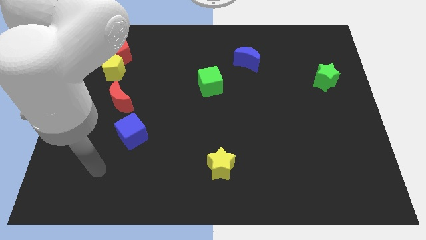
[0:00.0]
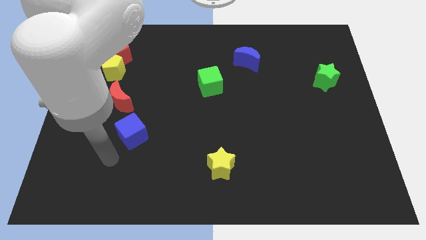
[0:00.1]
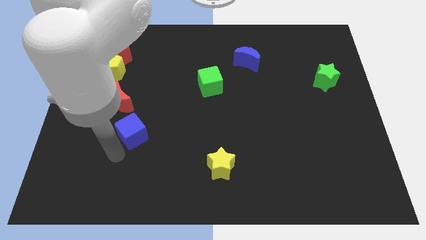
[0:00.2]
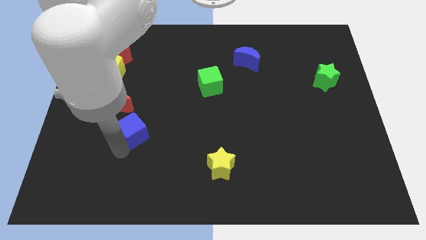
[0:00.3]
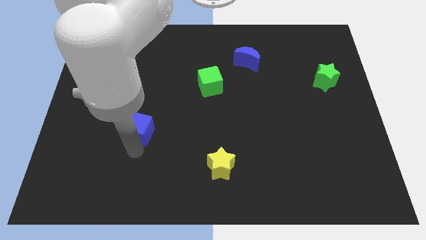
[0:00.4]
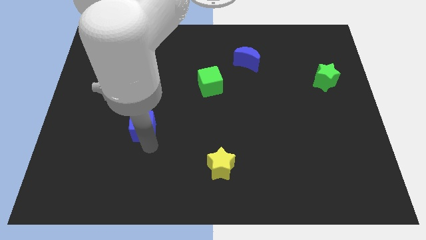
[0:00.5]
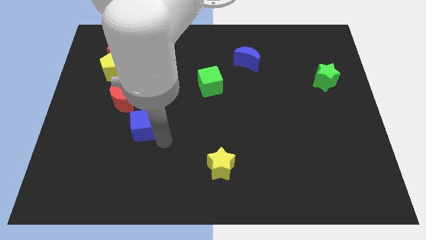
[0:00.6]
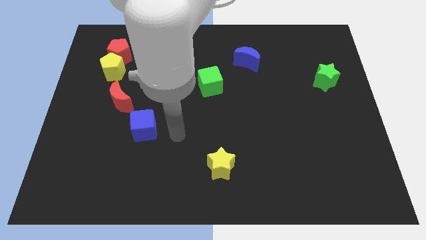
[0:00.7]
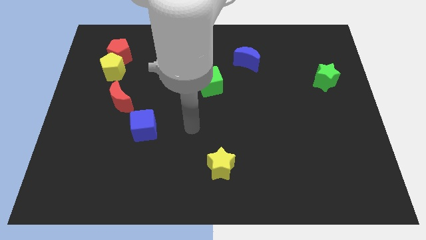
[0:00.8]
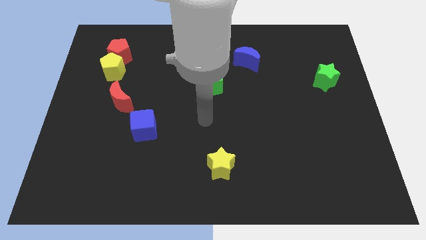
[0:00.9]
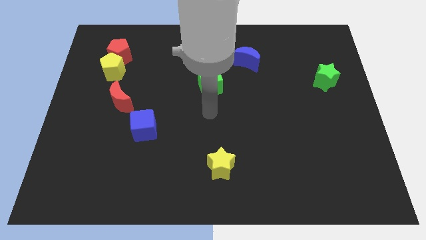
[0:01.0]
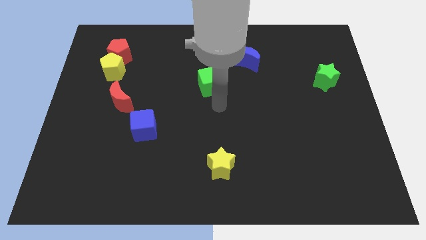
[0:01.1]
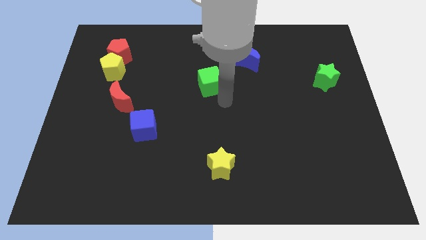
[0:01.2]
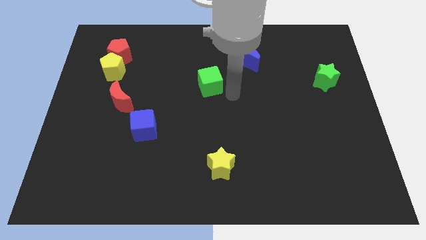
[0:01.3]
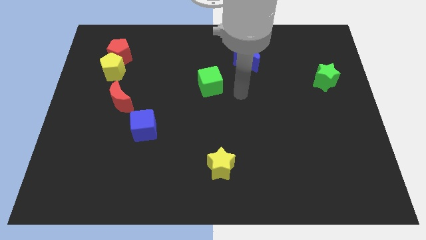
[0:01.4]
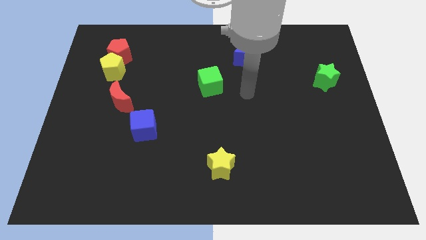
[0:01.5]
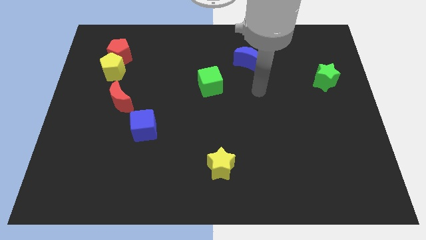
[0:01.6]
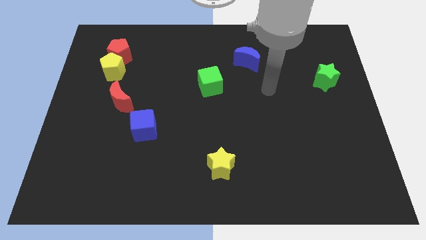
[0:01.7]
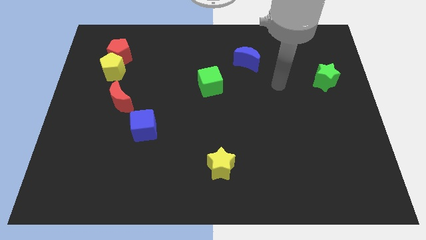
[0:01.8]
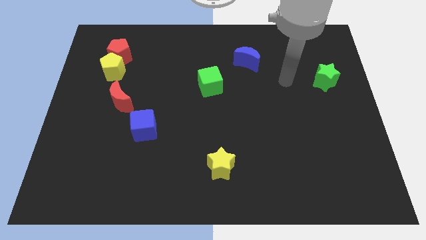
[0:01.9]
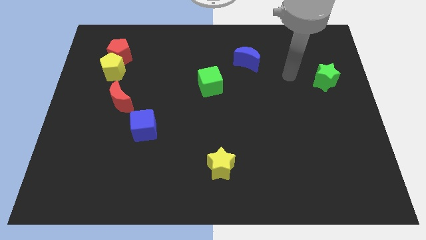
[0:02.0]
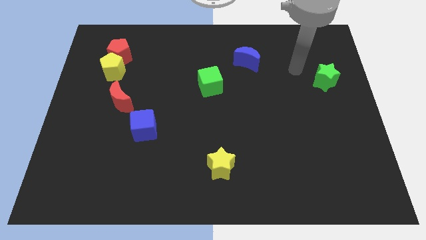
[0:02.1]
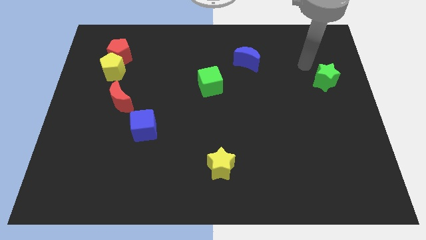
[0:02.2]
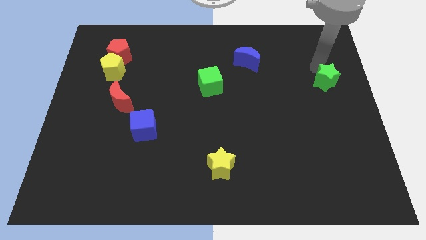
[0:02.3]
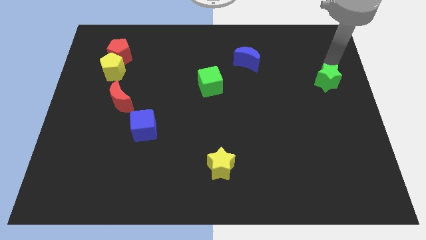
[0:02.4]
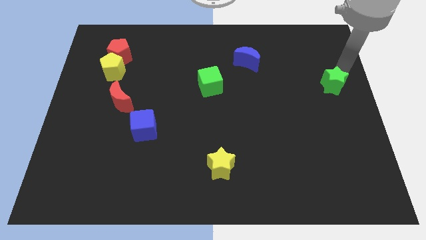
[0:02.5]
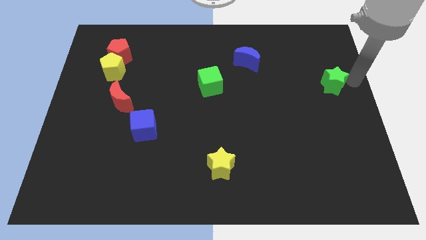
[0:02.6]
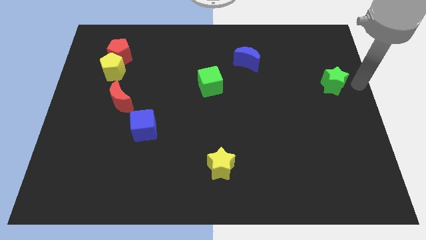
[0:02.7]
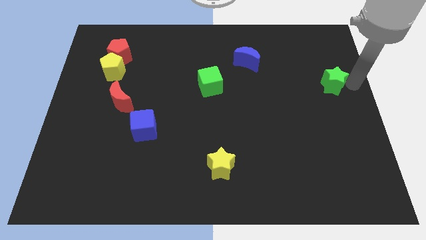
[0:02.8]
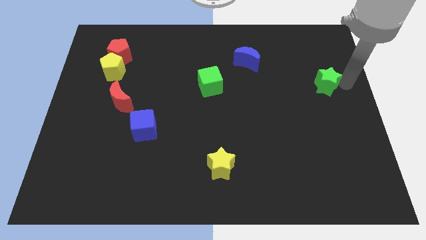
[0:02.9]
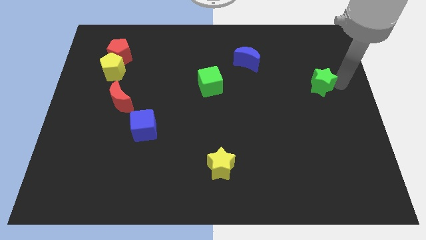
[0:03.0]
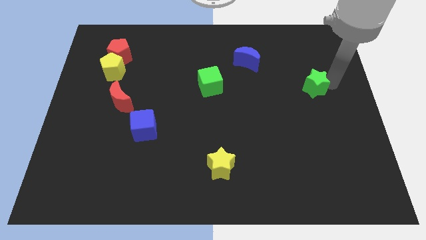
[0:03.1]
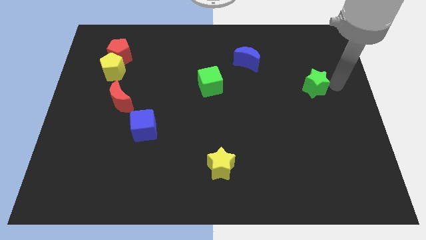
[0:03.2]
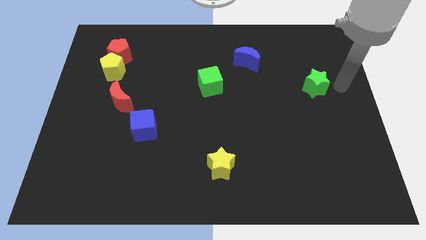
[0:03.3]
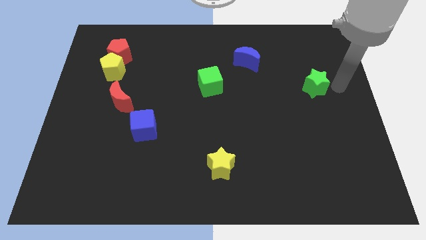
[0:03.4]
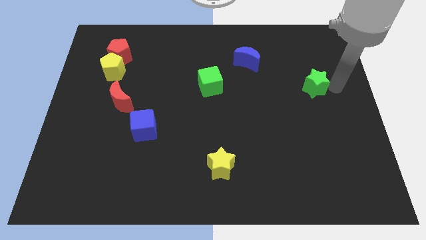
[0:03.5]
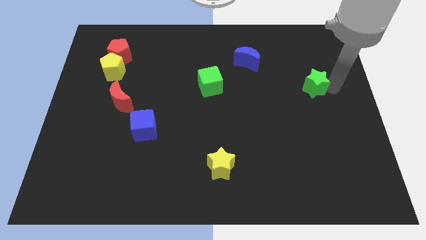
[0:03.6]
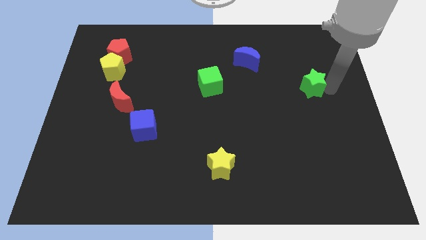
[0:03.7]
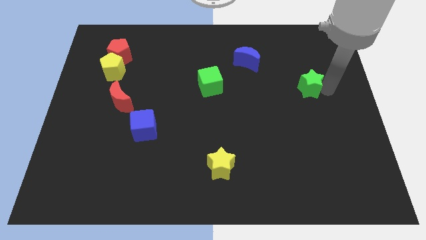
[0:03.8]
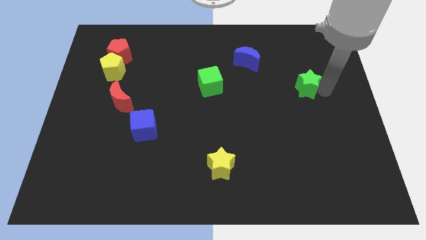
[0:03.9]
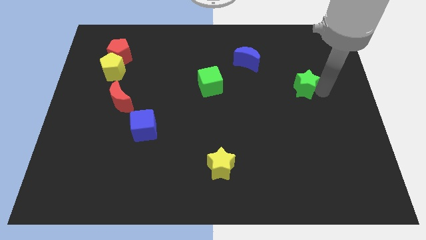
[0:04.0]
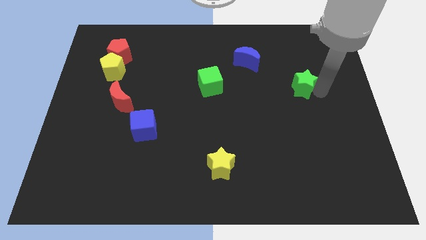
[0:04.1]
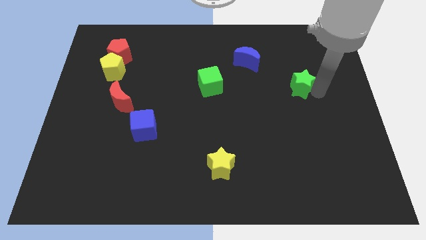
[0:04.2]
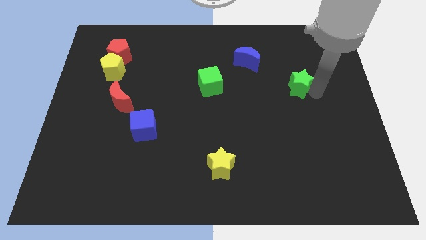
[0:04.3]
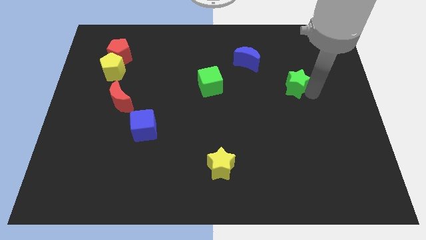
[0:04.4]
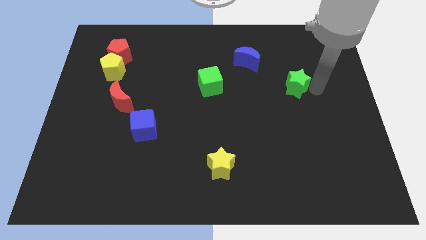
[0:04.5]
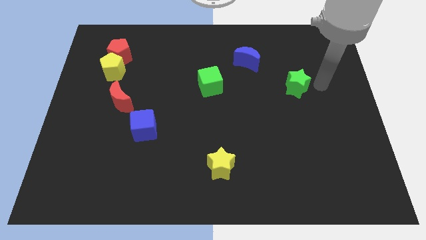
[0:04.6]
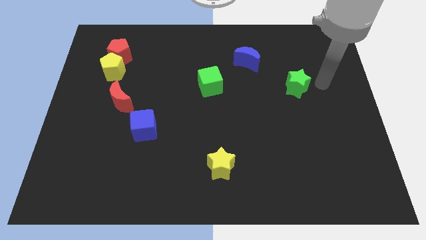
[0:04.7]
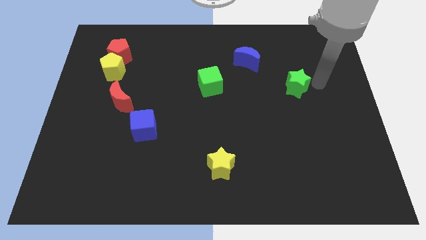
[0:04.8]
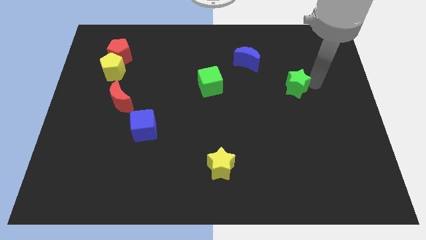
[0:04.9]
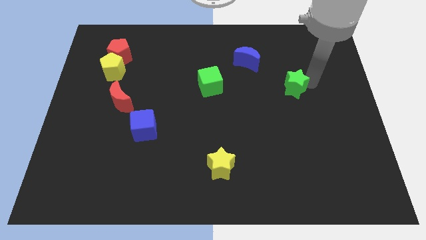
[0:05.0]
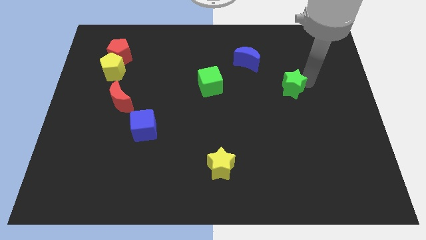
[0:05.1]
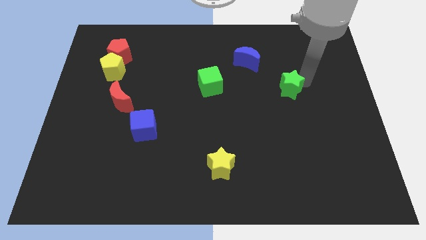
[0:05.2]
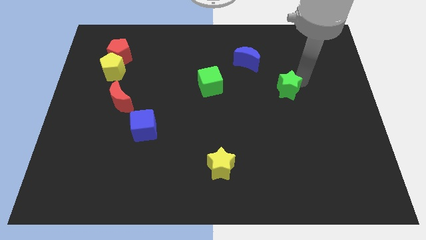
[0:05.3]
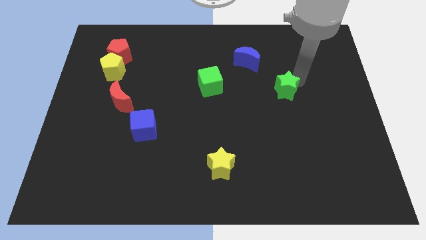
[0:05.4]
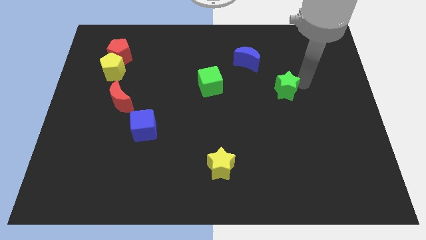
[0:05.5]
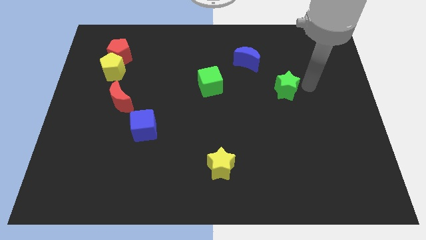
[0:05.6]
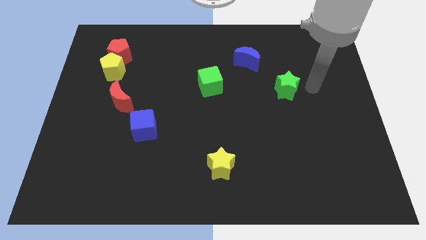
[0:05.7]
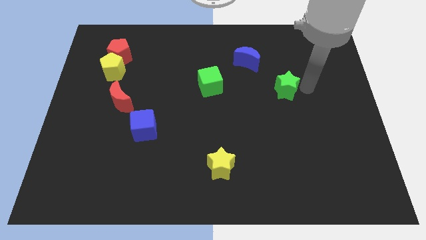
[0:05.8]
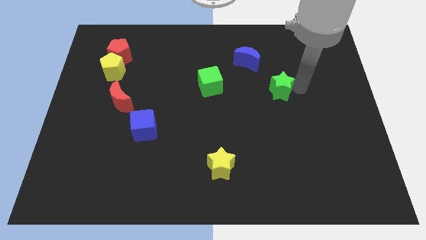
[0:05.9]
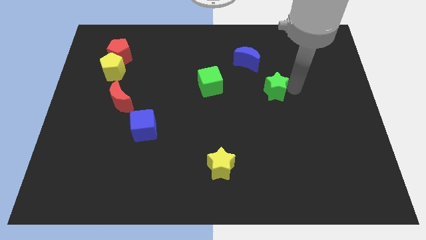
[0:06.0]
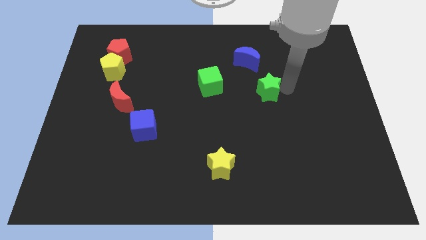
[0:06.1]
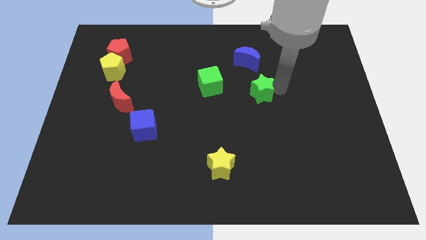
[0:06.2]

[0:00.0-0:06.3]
push the green star to the center of the board
